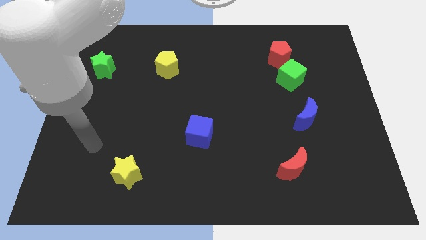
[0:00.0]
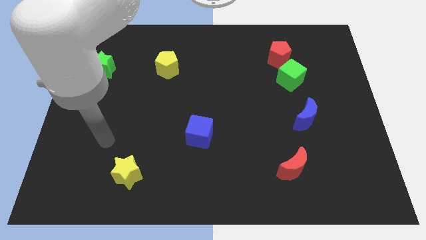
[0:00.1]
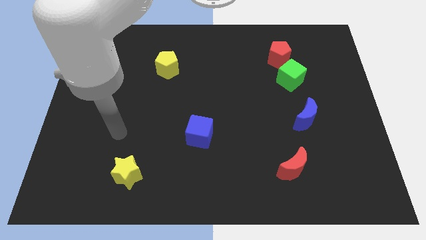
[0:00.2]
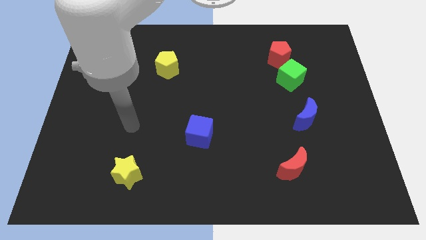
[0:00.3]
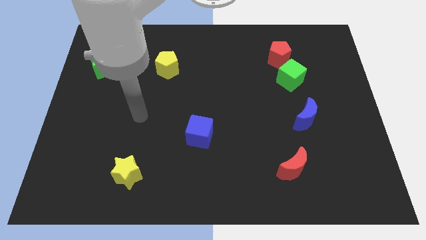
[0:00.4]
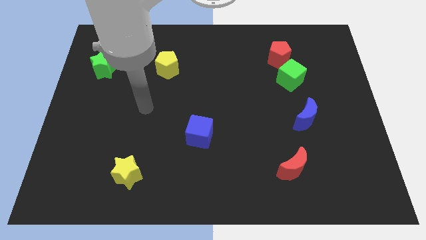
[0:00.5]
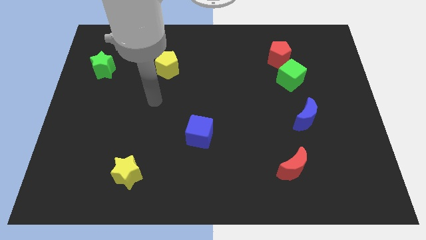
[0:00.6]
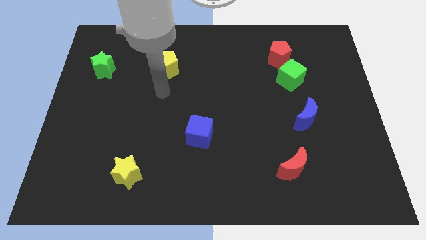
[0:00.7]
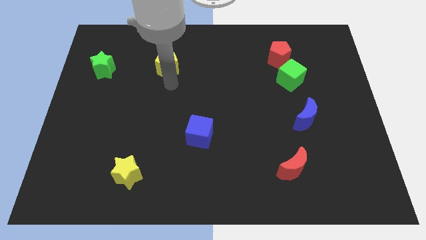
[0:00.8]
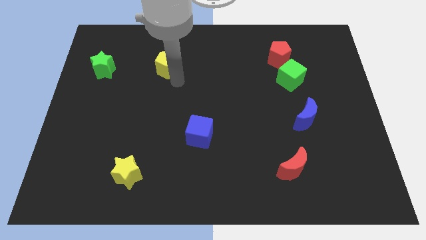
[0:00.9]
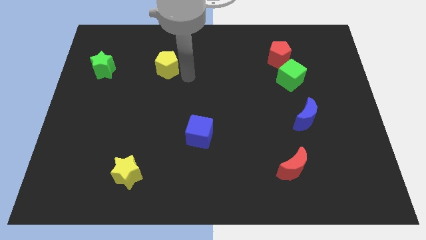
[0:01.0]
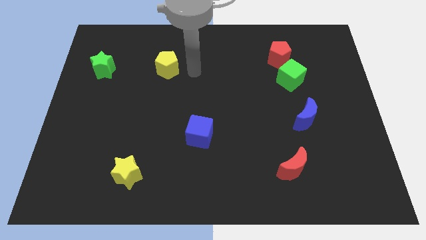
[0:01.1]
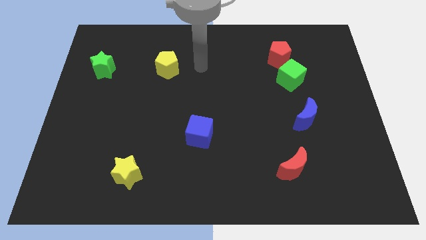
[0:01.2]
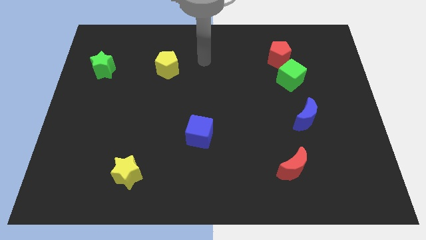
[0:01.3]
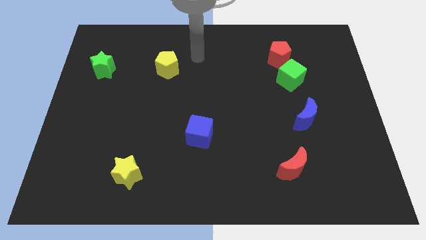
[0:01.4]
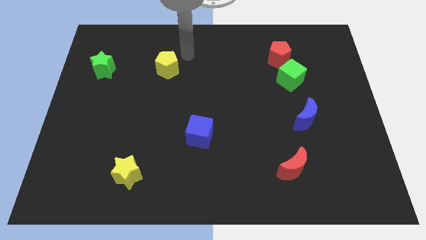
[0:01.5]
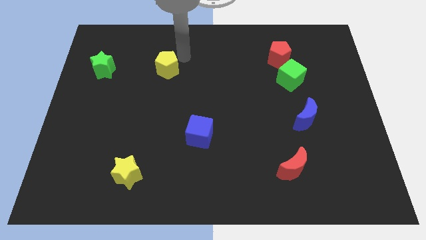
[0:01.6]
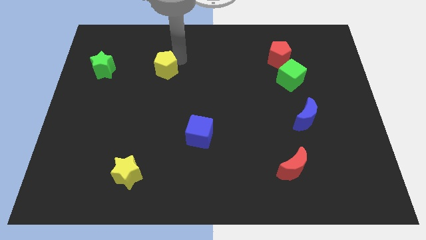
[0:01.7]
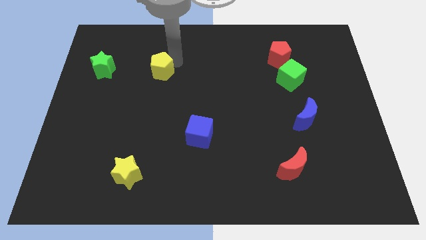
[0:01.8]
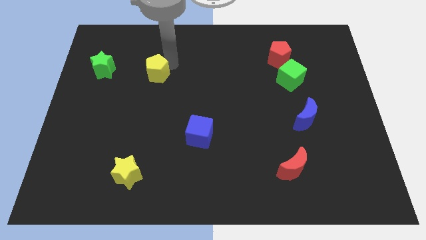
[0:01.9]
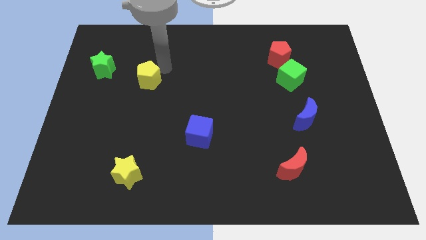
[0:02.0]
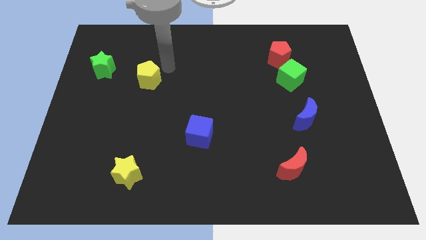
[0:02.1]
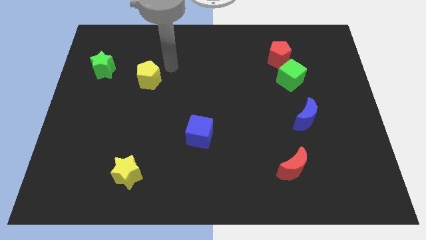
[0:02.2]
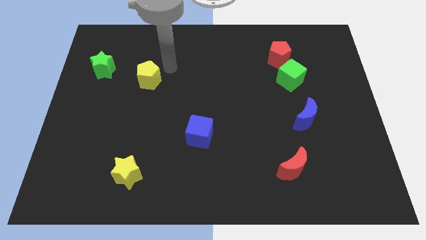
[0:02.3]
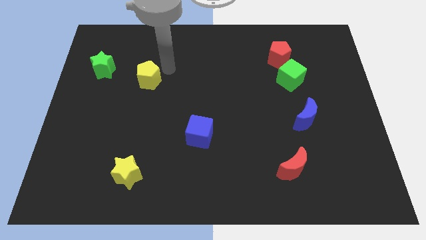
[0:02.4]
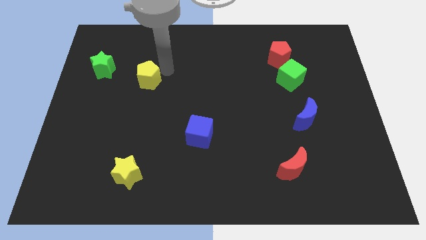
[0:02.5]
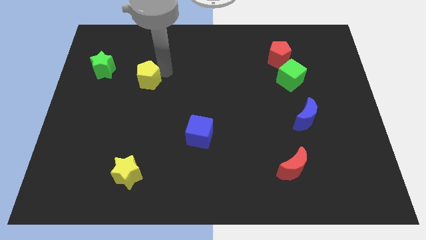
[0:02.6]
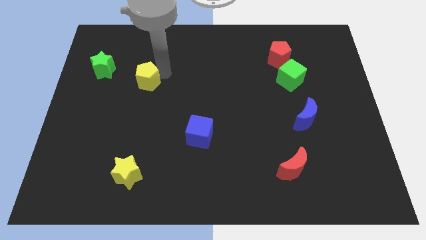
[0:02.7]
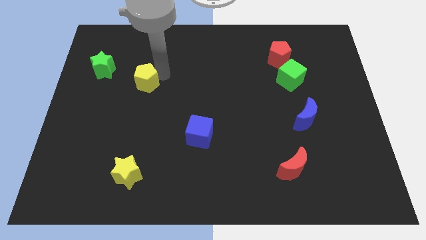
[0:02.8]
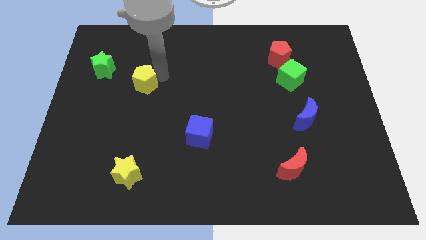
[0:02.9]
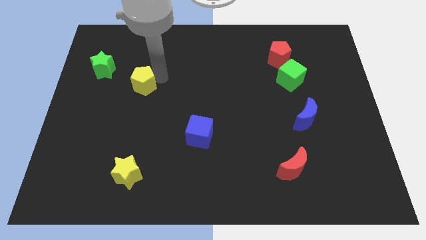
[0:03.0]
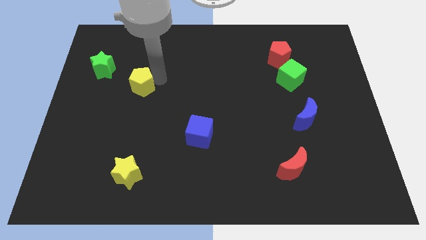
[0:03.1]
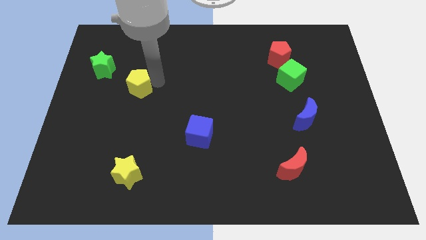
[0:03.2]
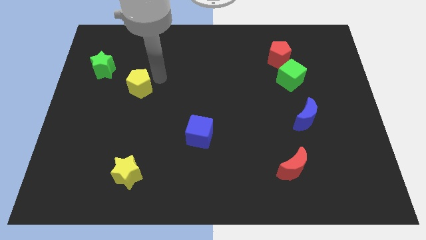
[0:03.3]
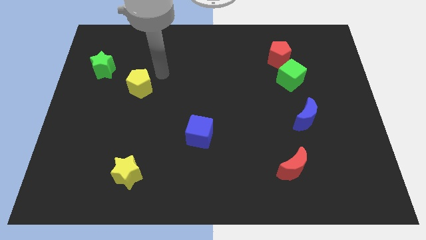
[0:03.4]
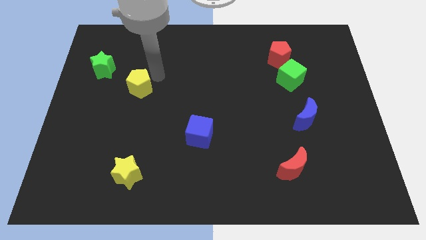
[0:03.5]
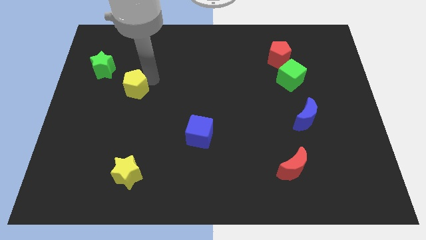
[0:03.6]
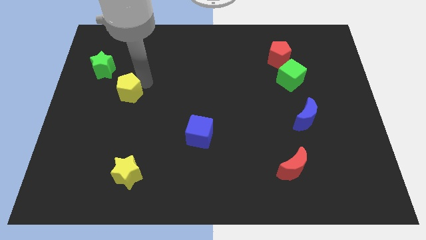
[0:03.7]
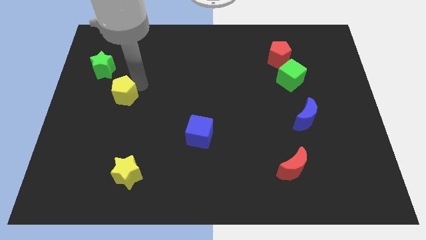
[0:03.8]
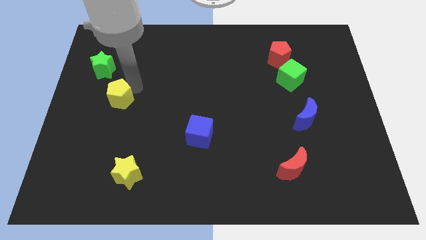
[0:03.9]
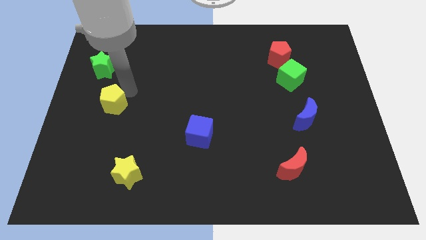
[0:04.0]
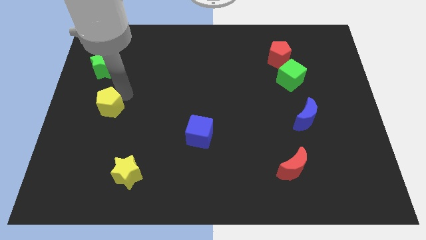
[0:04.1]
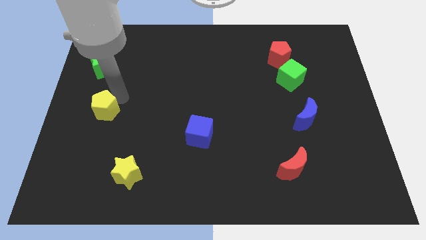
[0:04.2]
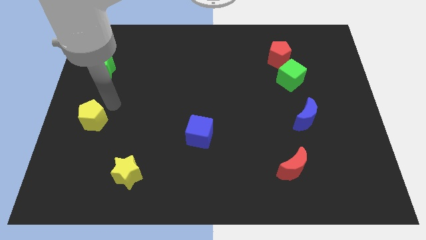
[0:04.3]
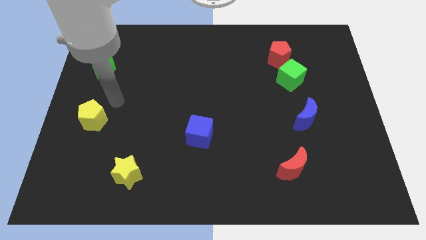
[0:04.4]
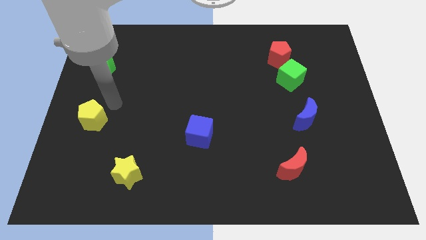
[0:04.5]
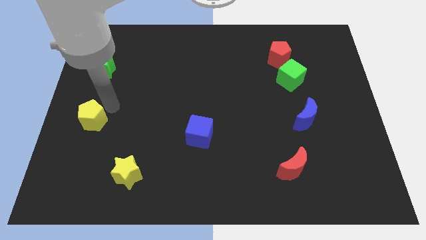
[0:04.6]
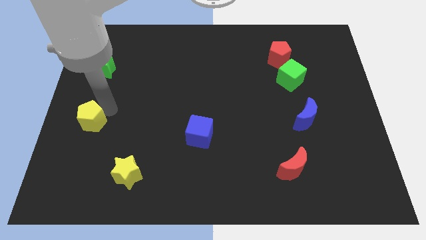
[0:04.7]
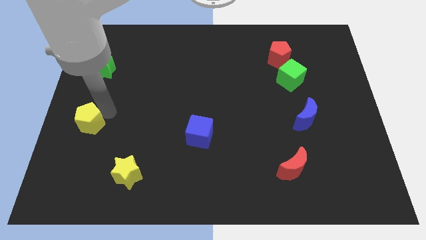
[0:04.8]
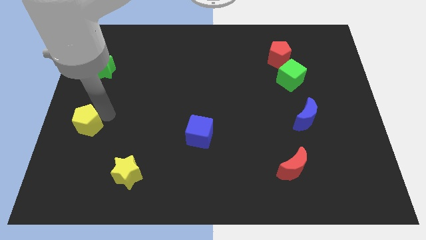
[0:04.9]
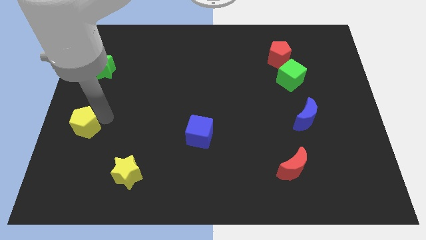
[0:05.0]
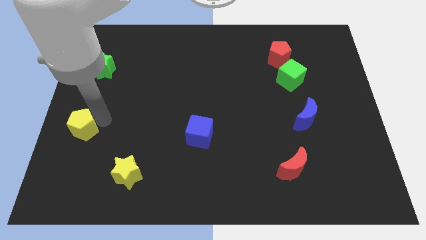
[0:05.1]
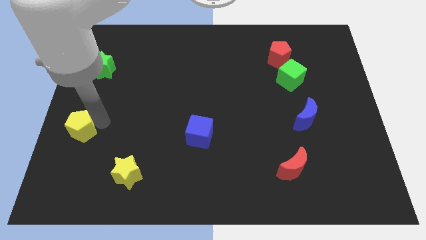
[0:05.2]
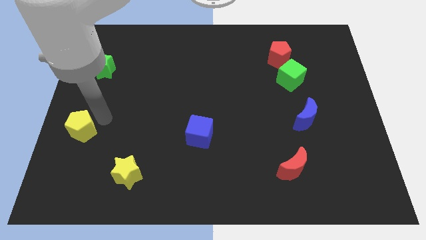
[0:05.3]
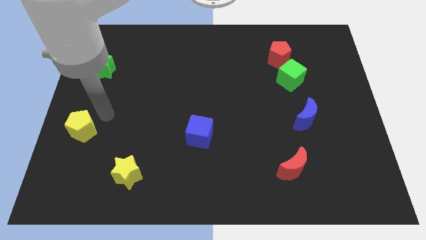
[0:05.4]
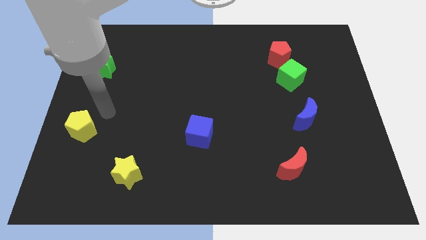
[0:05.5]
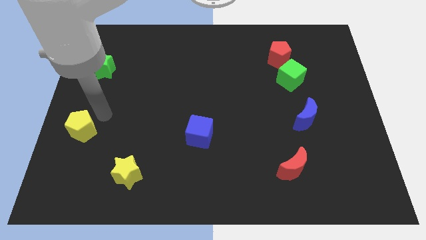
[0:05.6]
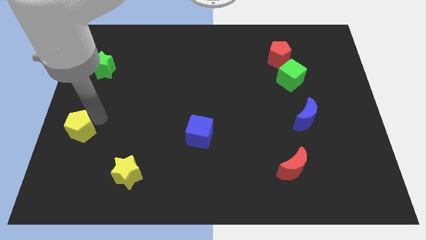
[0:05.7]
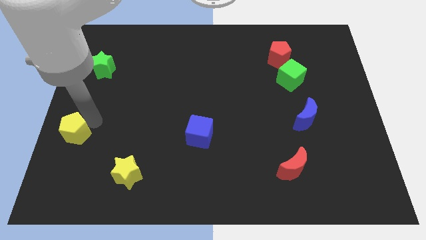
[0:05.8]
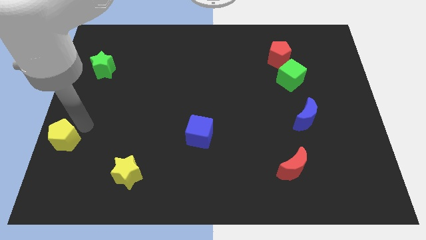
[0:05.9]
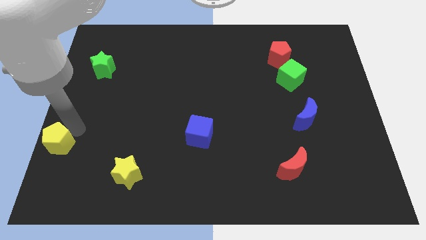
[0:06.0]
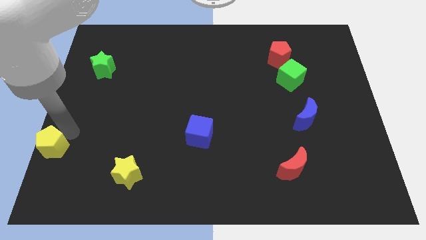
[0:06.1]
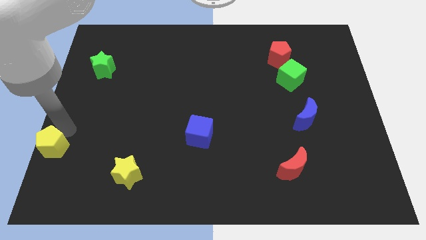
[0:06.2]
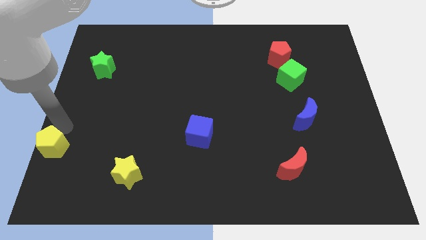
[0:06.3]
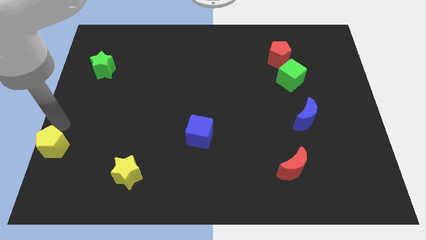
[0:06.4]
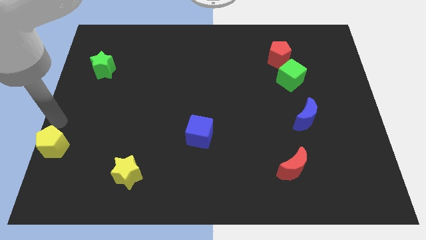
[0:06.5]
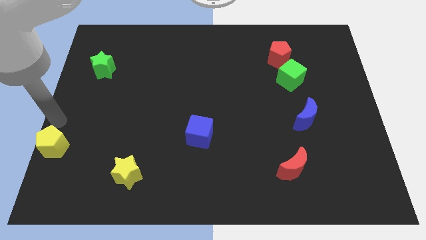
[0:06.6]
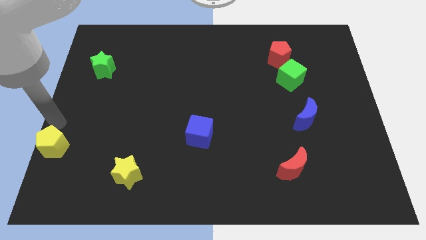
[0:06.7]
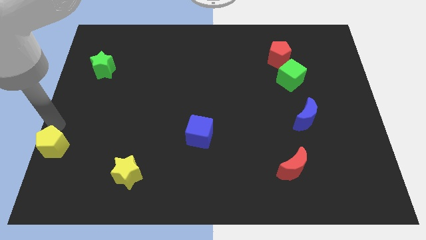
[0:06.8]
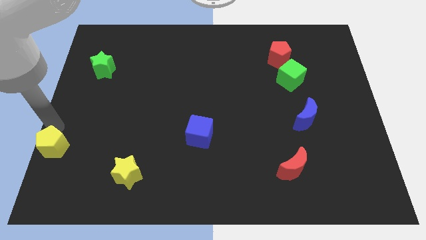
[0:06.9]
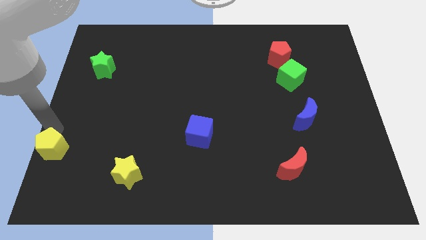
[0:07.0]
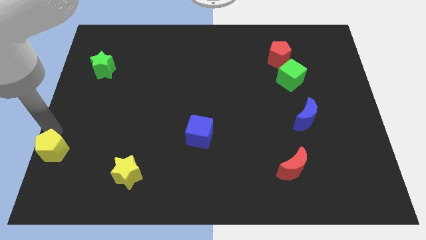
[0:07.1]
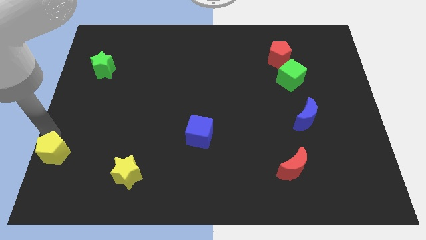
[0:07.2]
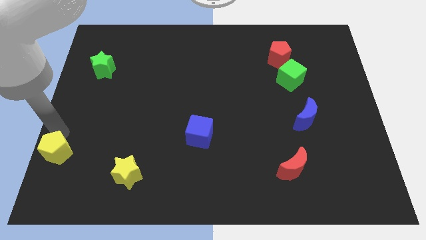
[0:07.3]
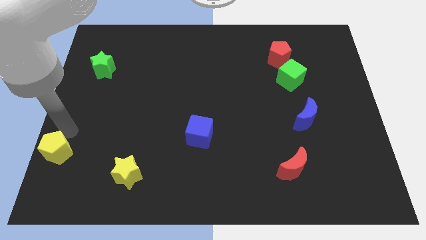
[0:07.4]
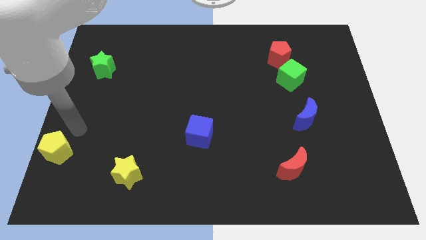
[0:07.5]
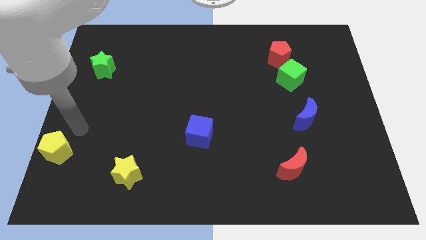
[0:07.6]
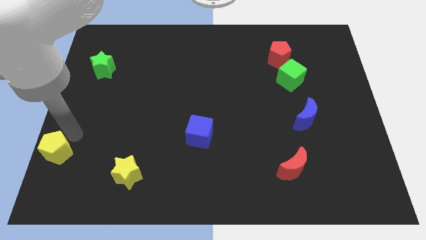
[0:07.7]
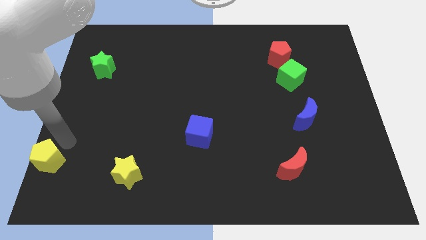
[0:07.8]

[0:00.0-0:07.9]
slide the yellow pentagon to the bottom left corner
